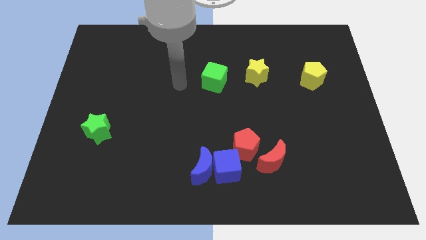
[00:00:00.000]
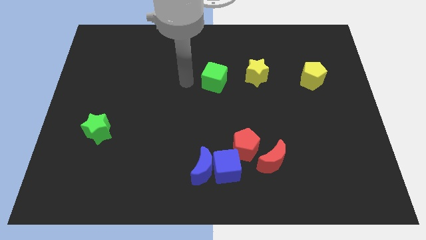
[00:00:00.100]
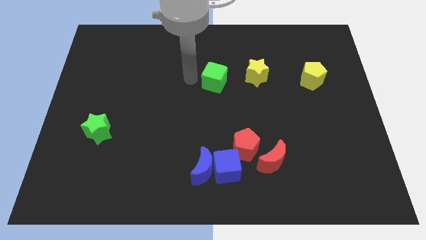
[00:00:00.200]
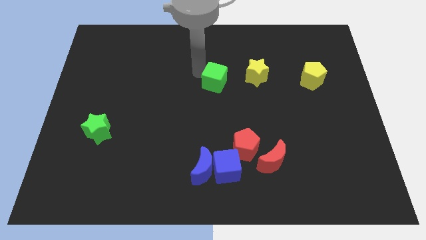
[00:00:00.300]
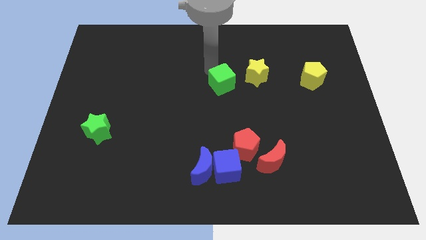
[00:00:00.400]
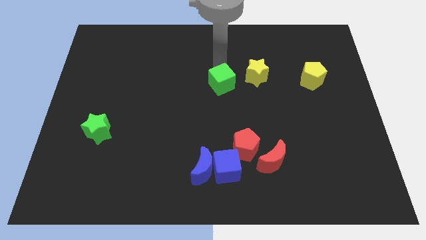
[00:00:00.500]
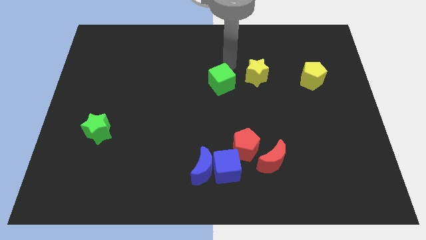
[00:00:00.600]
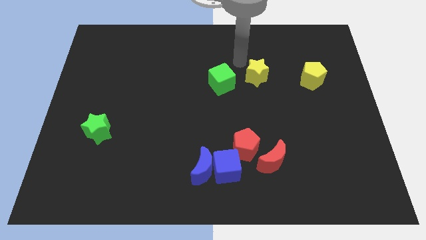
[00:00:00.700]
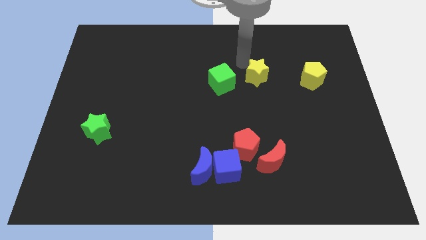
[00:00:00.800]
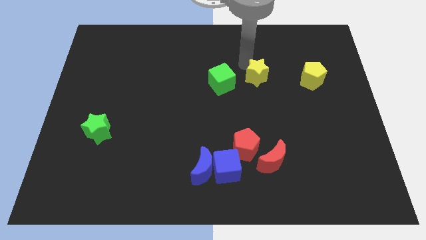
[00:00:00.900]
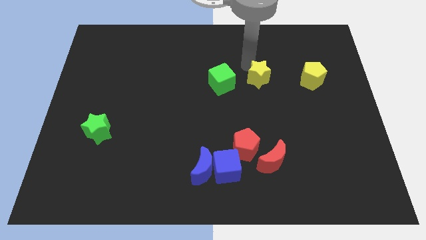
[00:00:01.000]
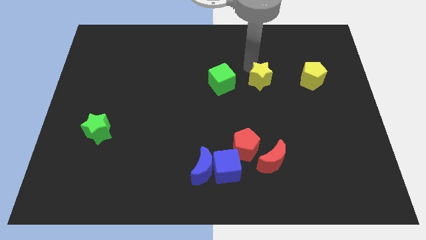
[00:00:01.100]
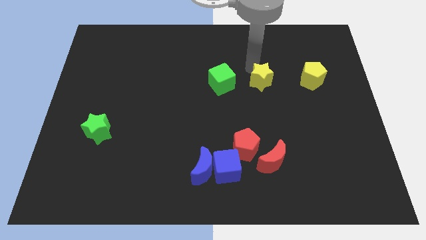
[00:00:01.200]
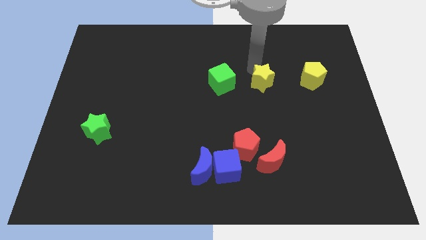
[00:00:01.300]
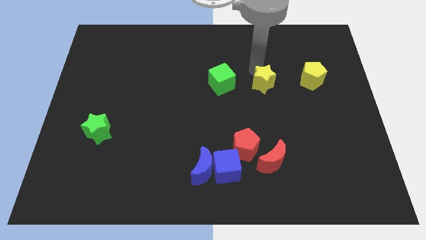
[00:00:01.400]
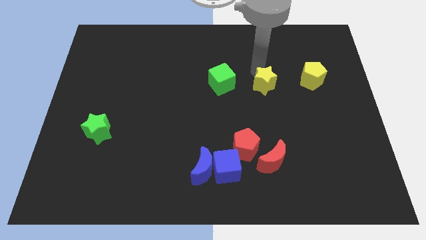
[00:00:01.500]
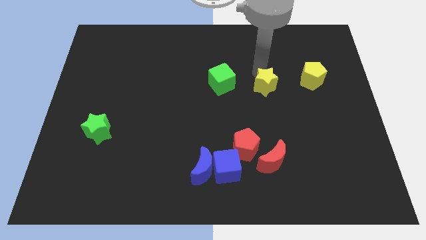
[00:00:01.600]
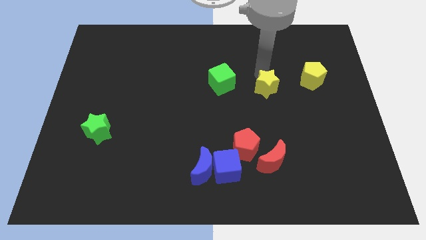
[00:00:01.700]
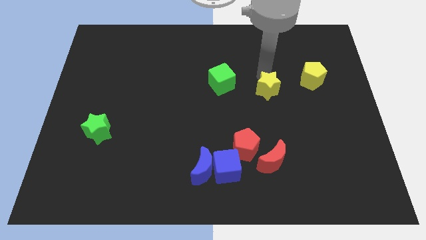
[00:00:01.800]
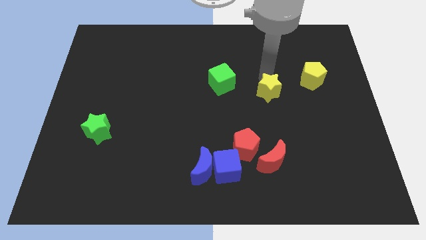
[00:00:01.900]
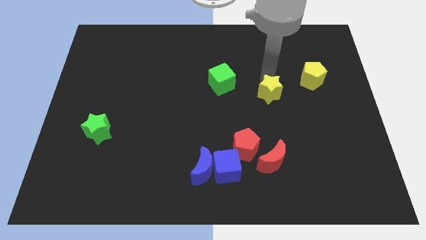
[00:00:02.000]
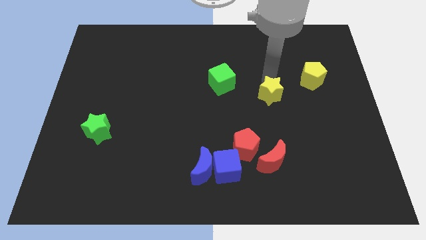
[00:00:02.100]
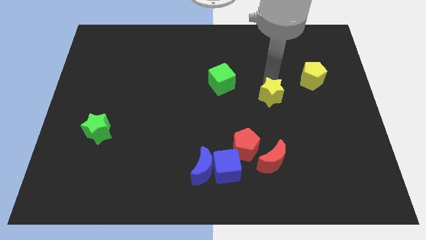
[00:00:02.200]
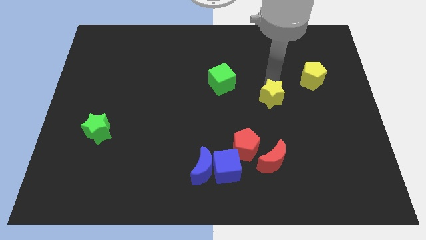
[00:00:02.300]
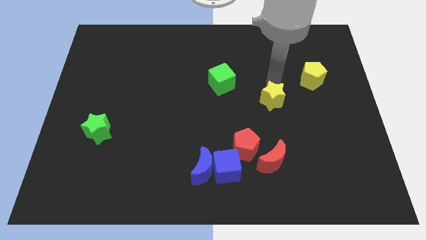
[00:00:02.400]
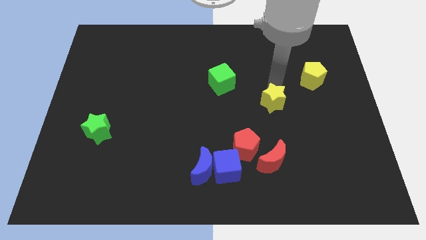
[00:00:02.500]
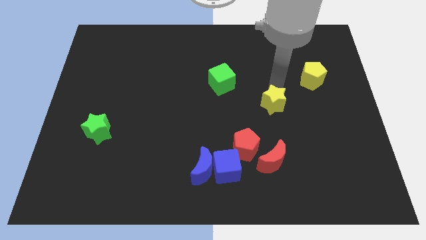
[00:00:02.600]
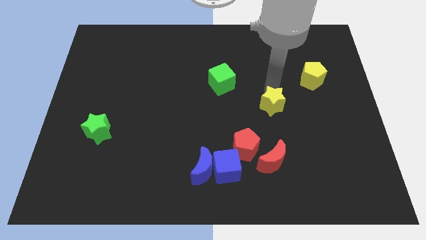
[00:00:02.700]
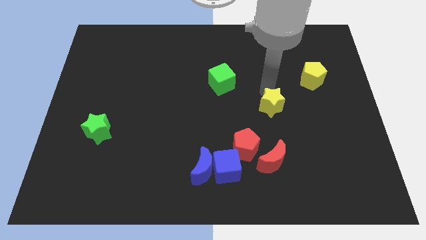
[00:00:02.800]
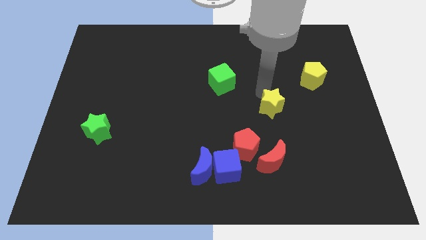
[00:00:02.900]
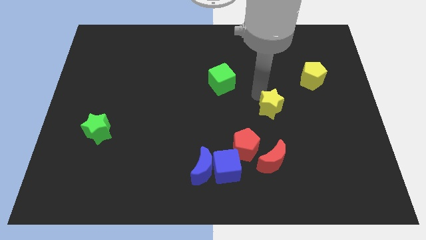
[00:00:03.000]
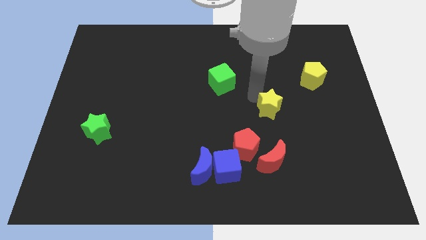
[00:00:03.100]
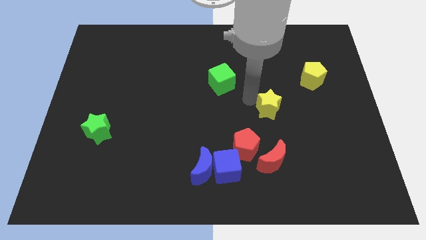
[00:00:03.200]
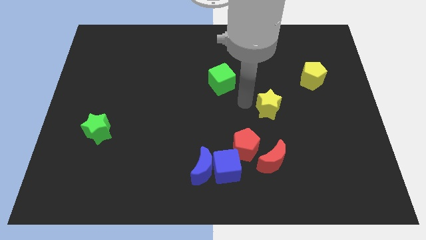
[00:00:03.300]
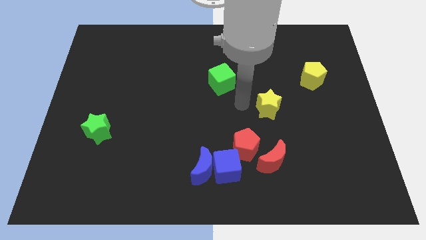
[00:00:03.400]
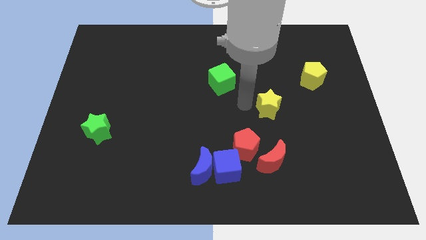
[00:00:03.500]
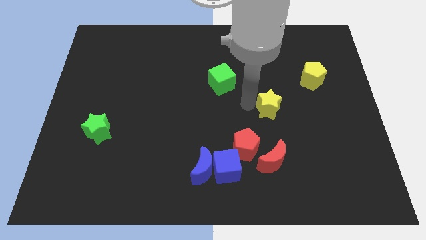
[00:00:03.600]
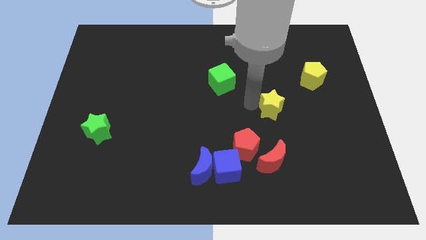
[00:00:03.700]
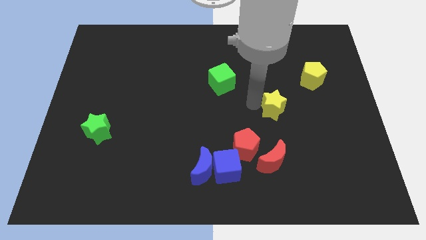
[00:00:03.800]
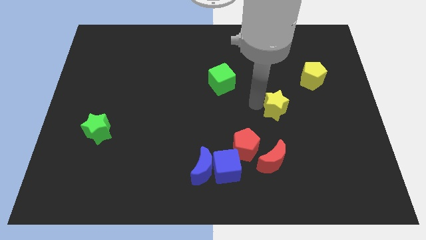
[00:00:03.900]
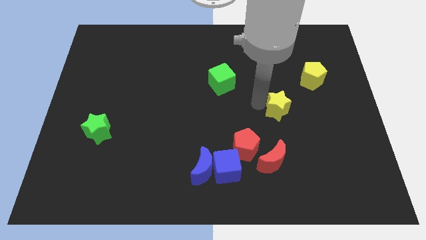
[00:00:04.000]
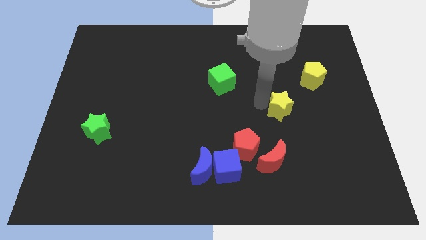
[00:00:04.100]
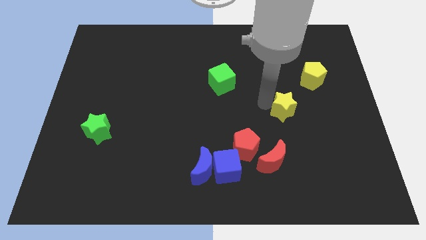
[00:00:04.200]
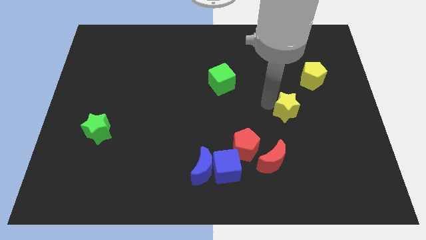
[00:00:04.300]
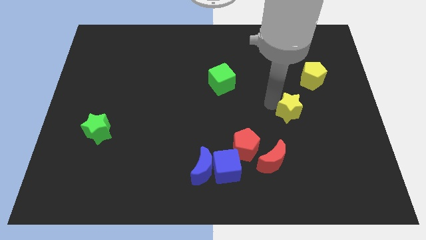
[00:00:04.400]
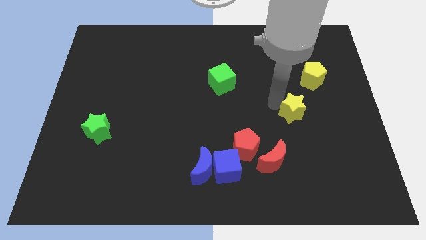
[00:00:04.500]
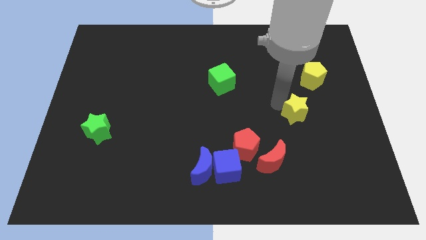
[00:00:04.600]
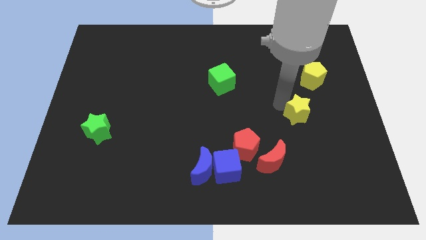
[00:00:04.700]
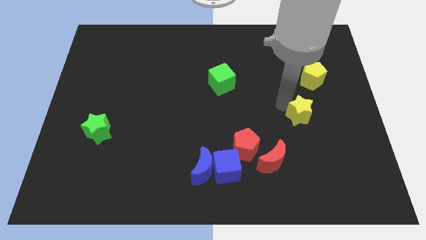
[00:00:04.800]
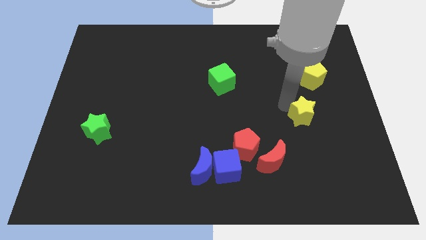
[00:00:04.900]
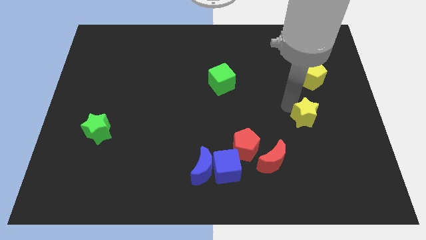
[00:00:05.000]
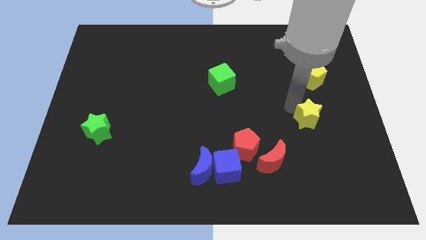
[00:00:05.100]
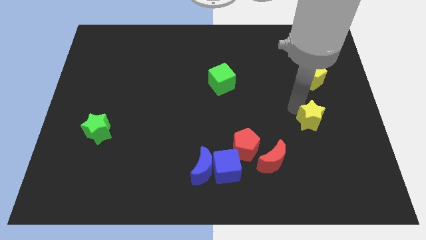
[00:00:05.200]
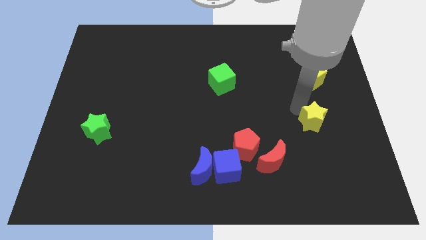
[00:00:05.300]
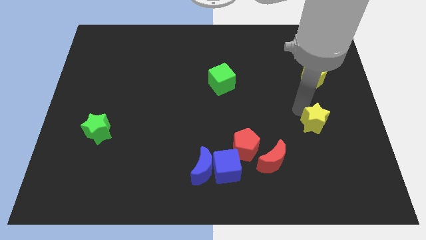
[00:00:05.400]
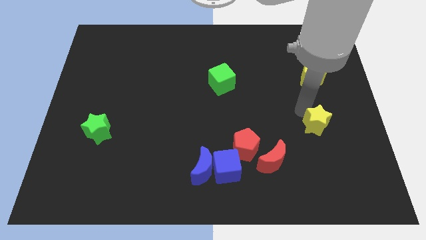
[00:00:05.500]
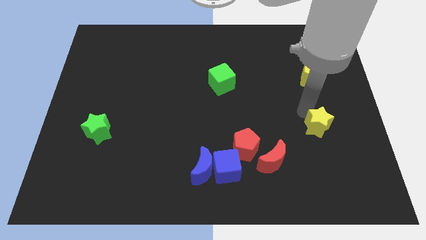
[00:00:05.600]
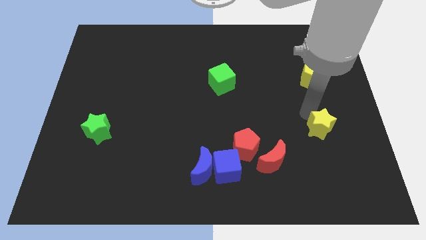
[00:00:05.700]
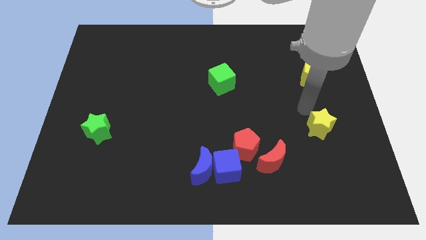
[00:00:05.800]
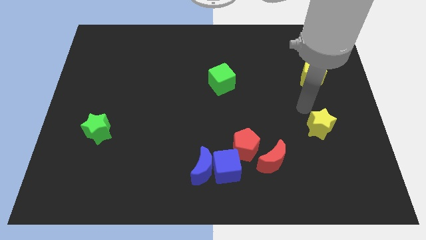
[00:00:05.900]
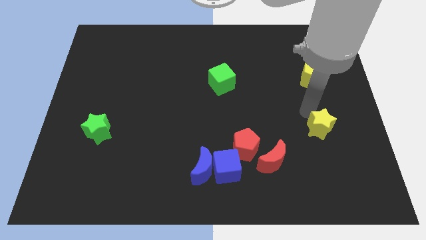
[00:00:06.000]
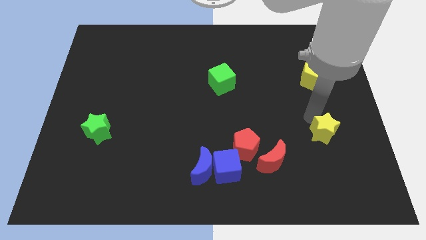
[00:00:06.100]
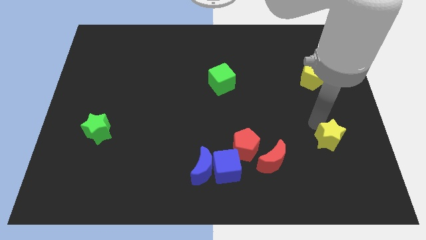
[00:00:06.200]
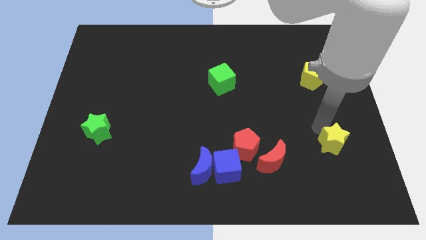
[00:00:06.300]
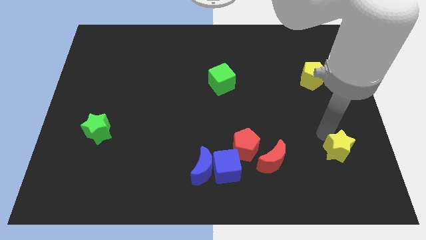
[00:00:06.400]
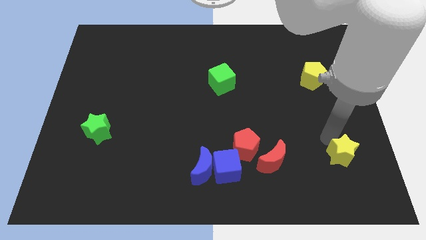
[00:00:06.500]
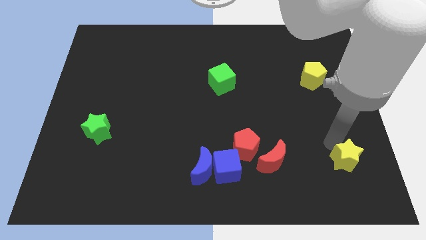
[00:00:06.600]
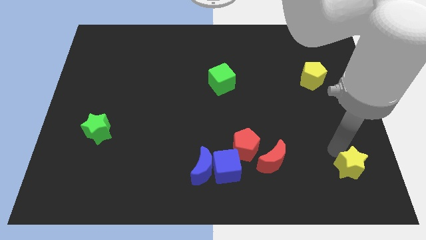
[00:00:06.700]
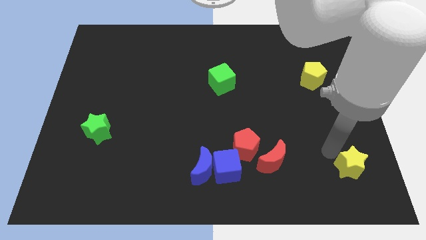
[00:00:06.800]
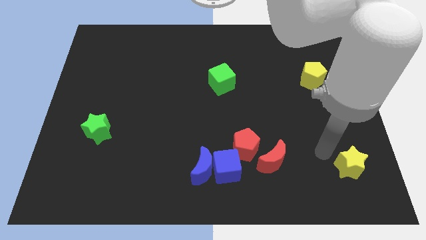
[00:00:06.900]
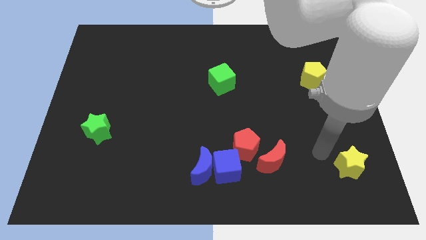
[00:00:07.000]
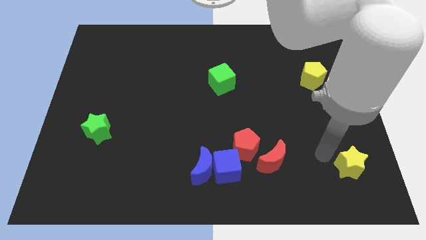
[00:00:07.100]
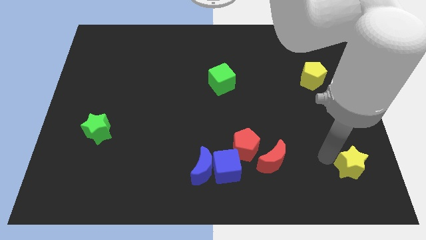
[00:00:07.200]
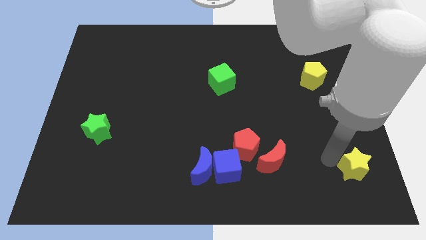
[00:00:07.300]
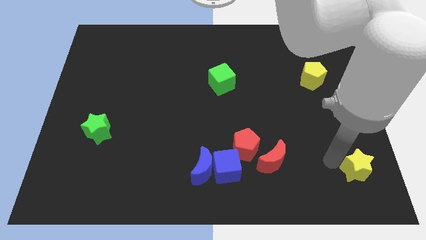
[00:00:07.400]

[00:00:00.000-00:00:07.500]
move the yellow star to the bottom right corner
